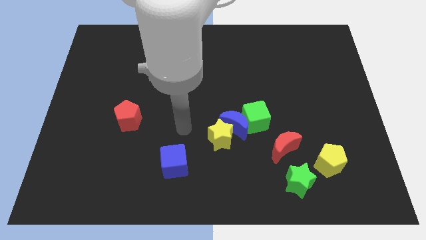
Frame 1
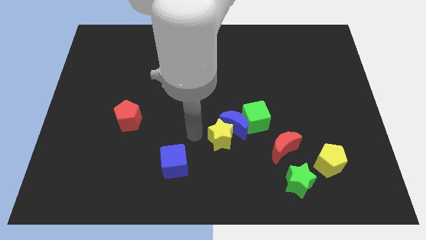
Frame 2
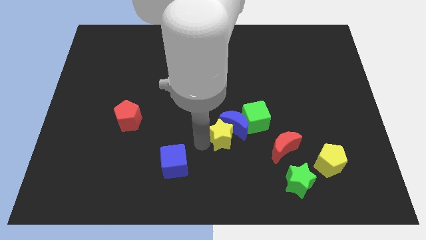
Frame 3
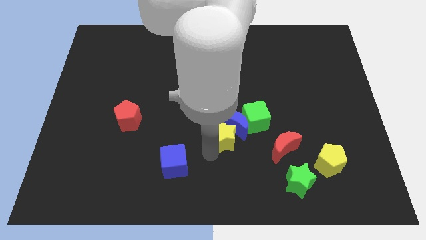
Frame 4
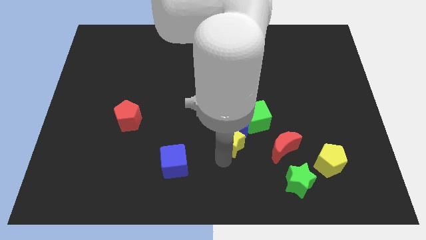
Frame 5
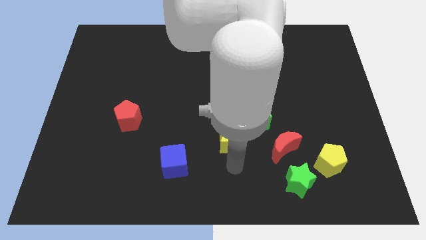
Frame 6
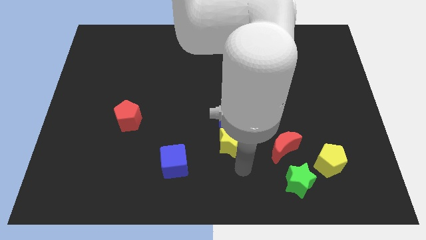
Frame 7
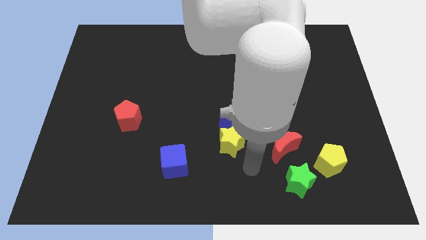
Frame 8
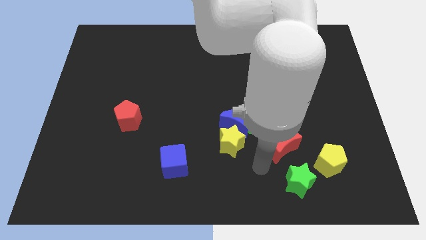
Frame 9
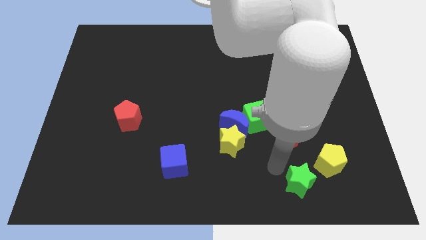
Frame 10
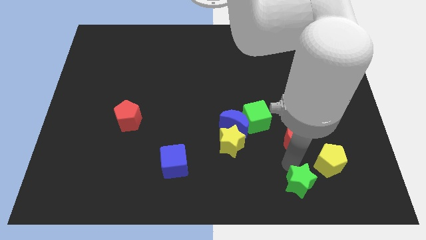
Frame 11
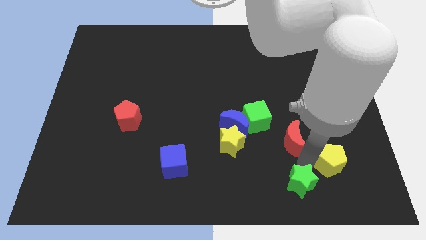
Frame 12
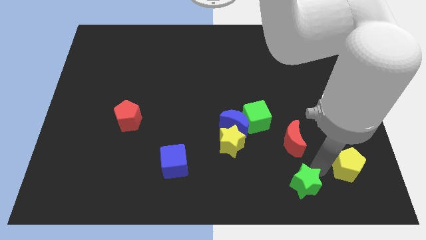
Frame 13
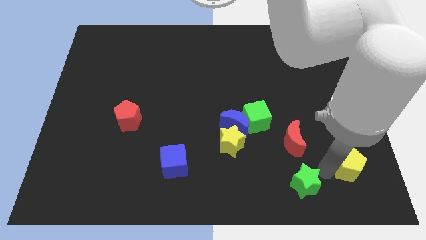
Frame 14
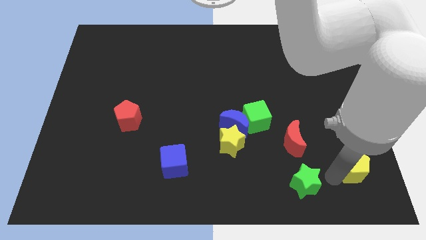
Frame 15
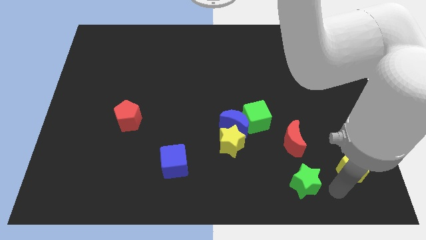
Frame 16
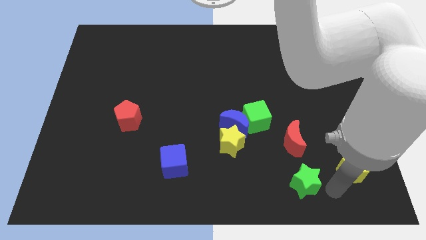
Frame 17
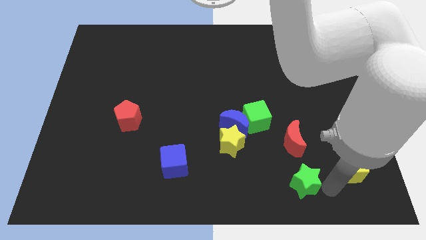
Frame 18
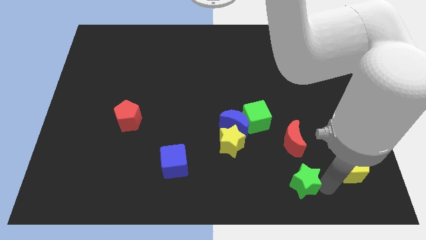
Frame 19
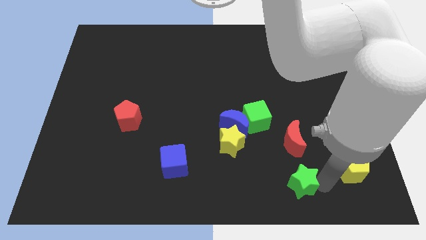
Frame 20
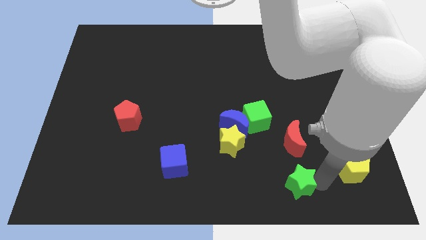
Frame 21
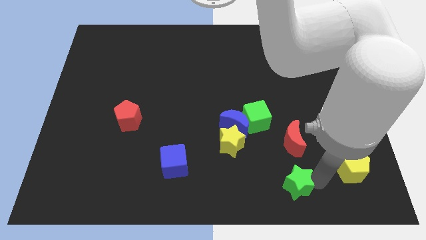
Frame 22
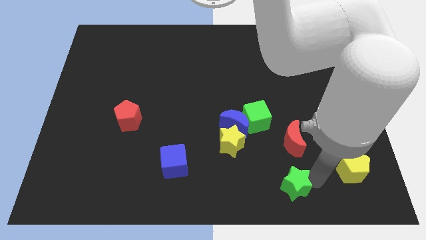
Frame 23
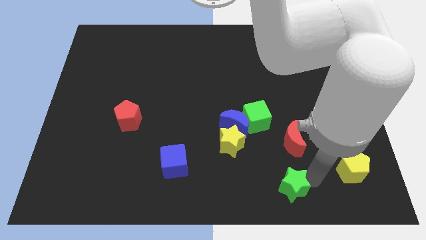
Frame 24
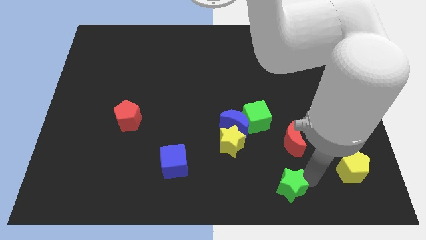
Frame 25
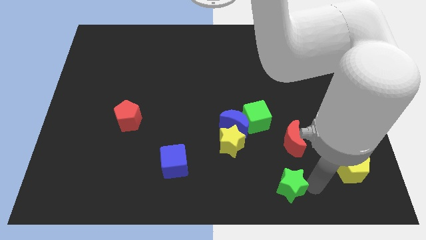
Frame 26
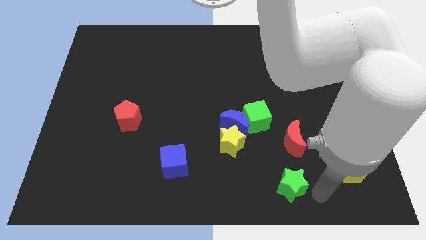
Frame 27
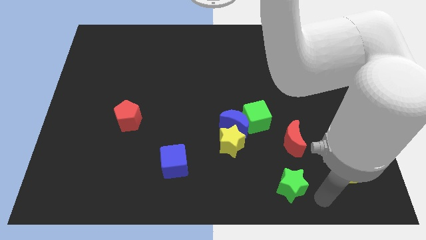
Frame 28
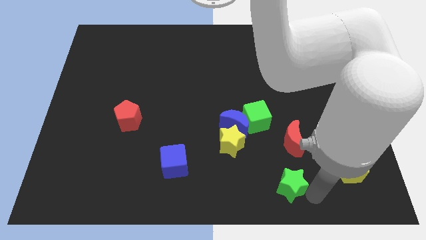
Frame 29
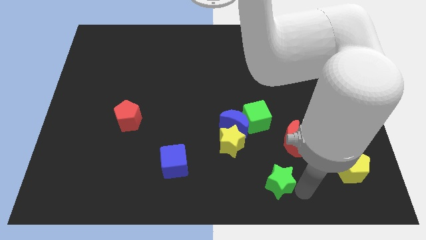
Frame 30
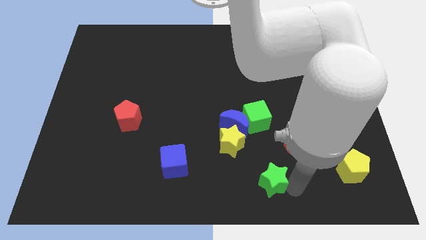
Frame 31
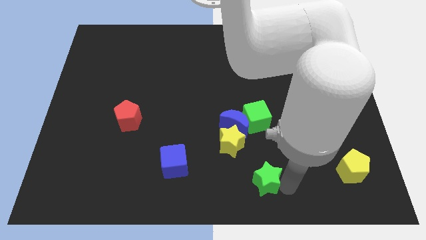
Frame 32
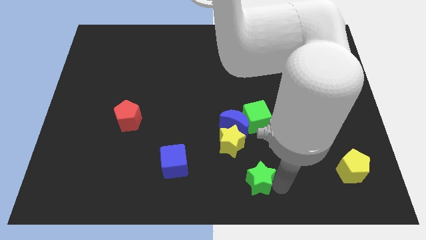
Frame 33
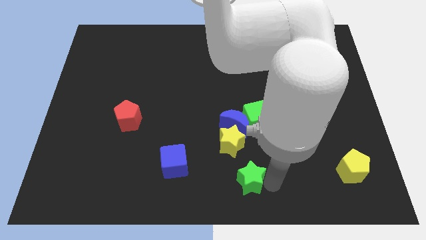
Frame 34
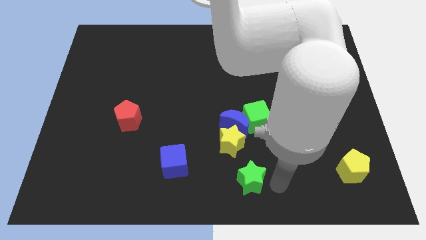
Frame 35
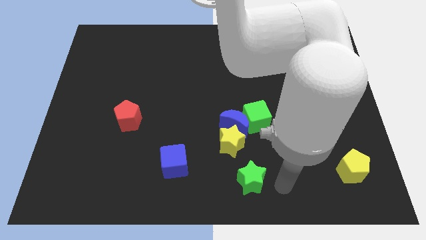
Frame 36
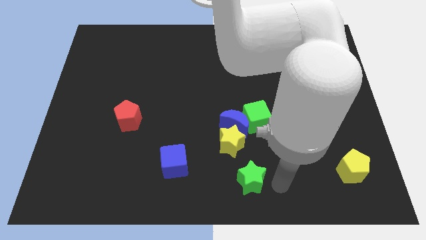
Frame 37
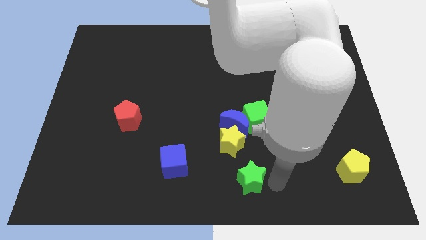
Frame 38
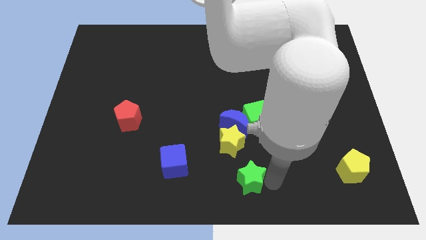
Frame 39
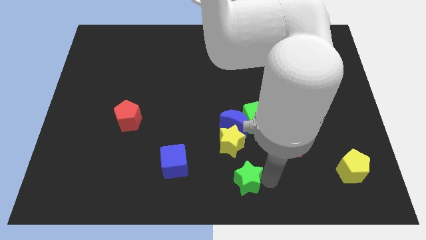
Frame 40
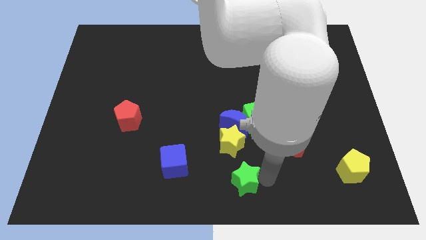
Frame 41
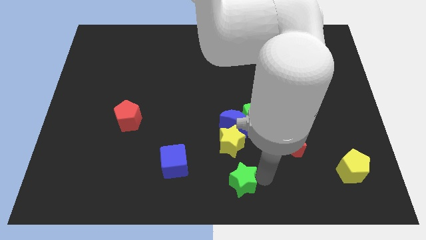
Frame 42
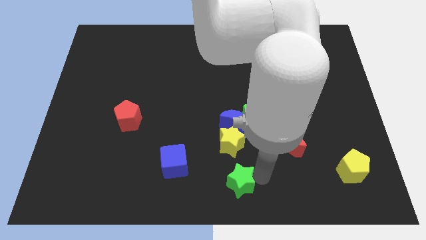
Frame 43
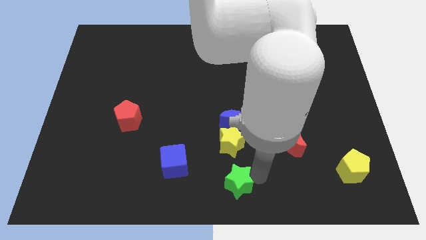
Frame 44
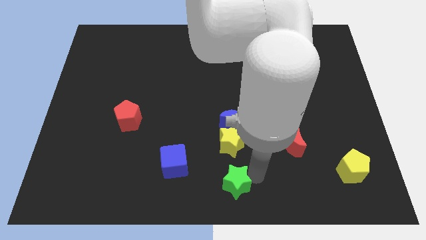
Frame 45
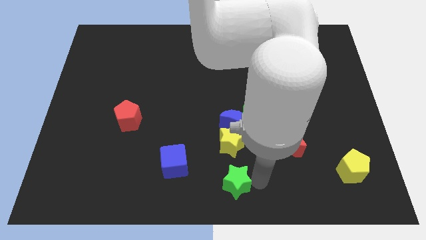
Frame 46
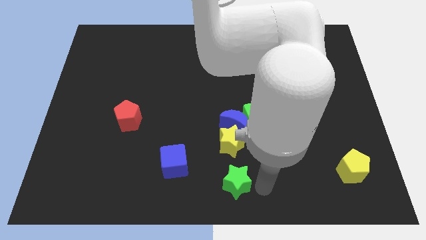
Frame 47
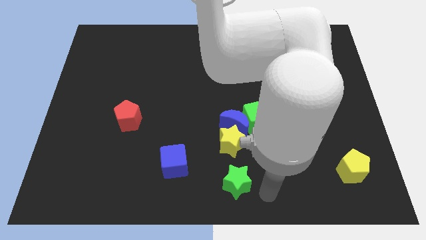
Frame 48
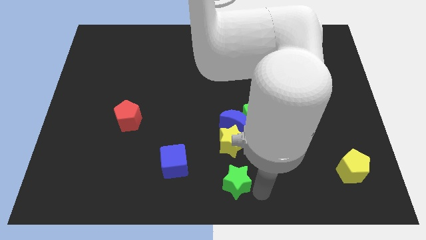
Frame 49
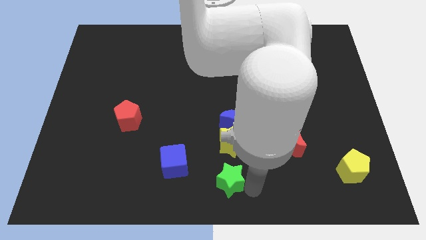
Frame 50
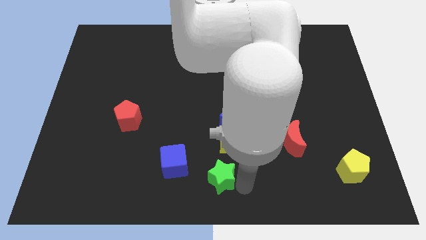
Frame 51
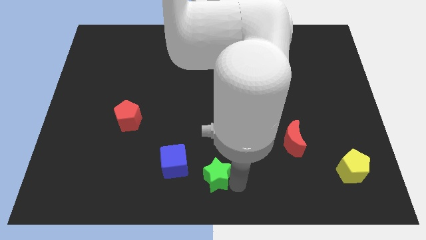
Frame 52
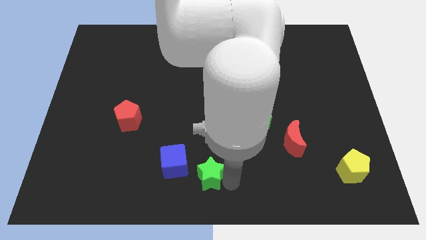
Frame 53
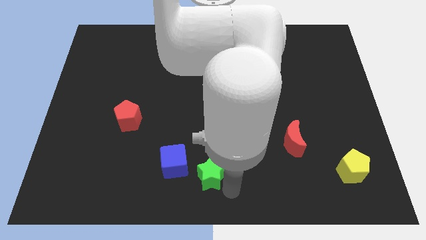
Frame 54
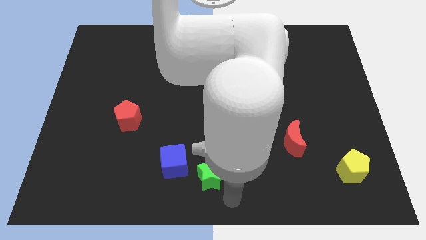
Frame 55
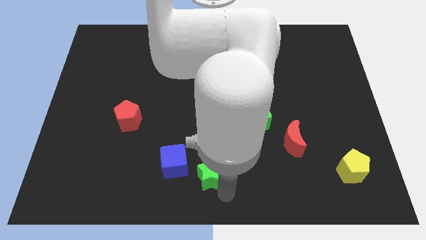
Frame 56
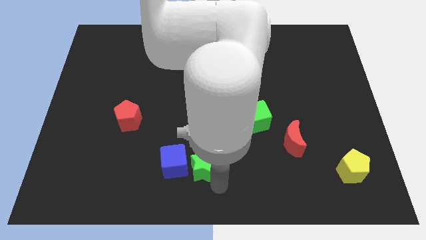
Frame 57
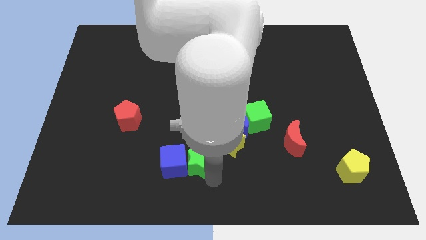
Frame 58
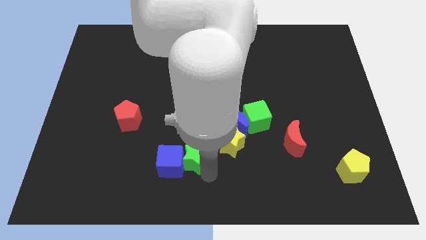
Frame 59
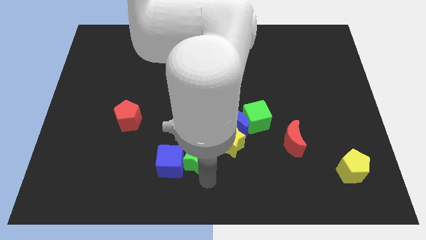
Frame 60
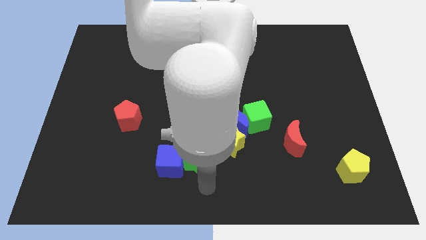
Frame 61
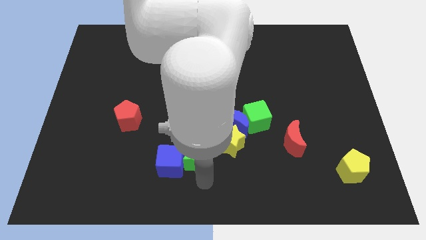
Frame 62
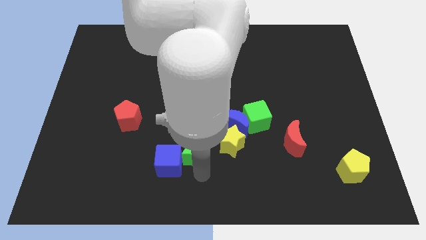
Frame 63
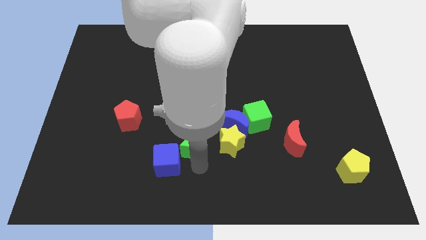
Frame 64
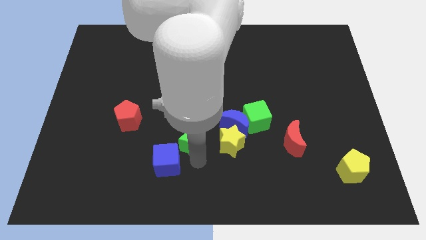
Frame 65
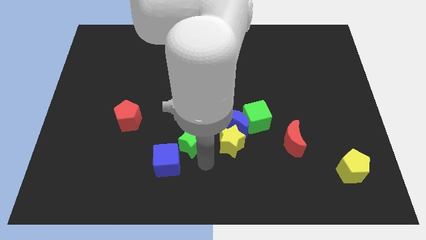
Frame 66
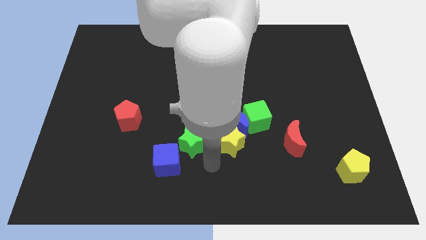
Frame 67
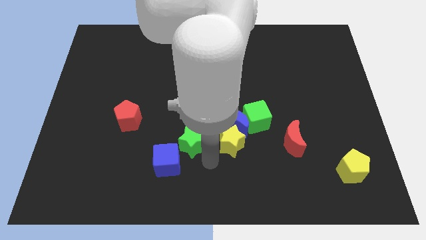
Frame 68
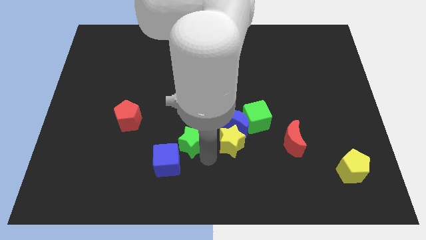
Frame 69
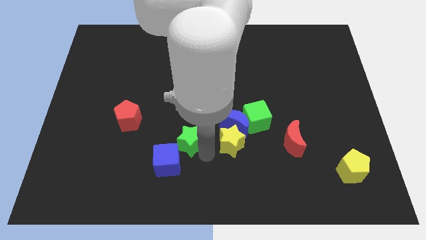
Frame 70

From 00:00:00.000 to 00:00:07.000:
move the green star to the top of the blue cube
